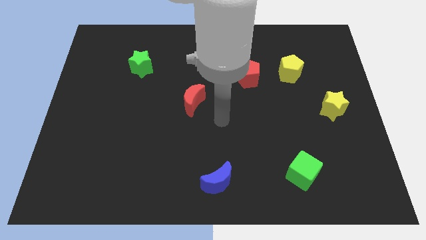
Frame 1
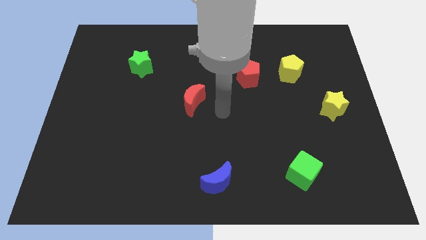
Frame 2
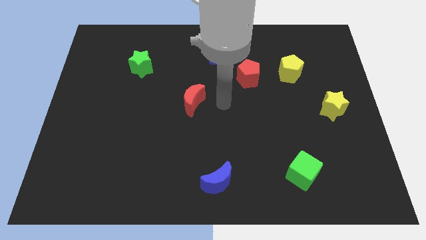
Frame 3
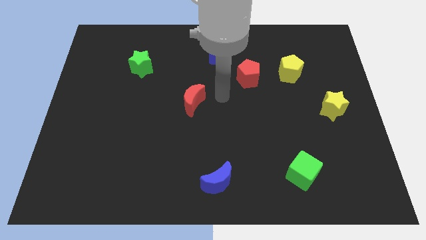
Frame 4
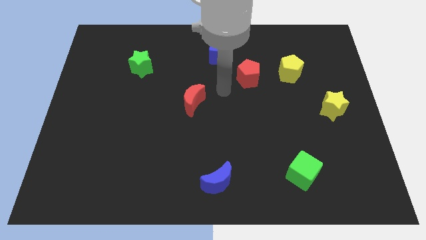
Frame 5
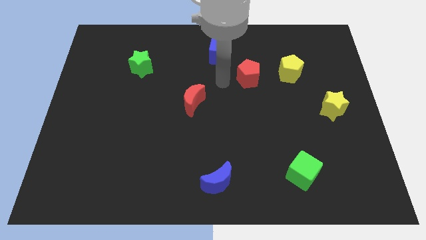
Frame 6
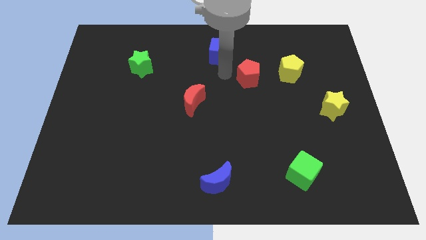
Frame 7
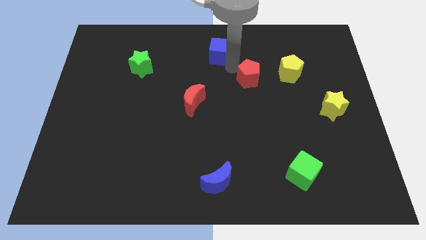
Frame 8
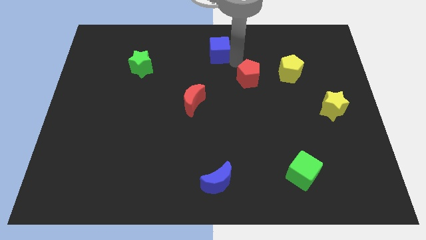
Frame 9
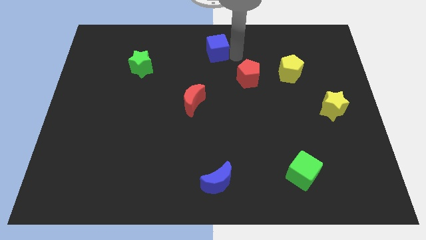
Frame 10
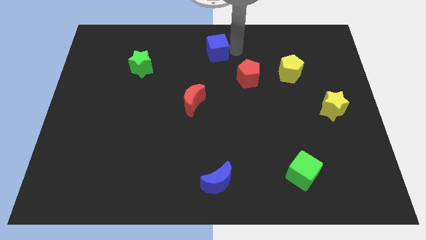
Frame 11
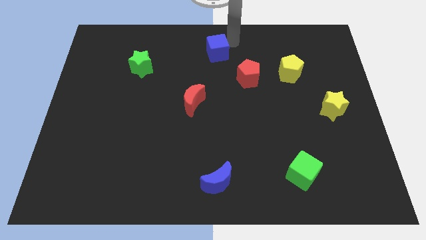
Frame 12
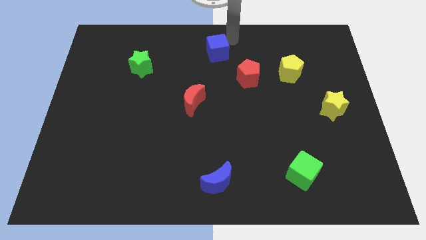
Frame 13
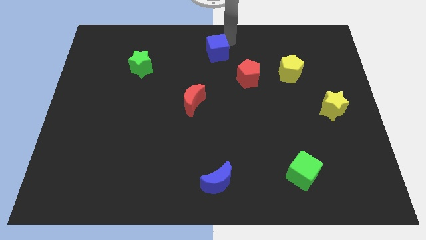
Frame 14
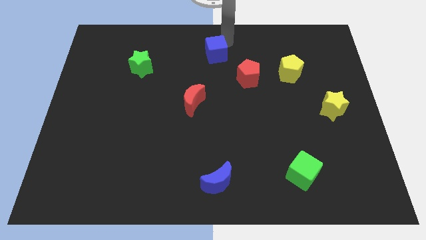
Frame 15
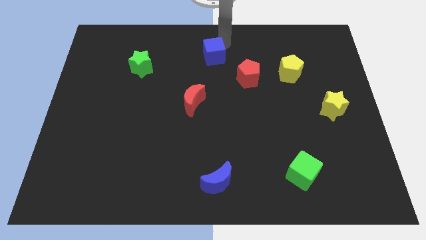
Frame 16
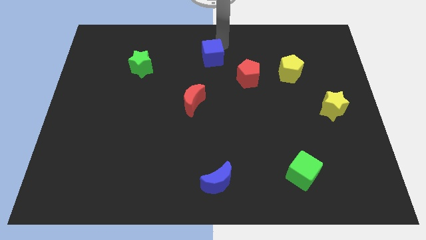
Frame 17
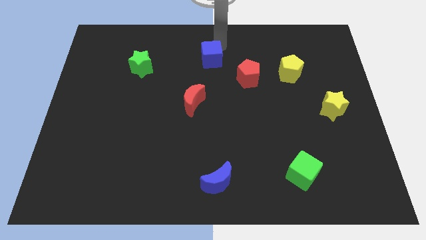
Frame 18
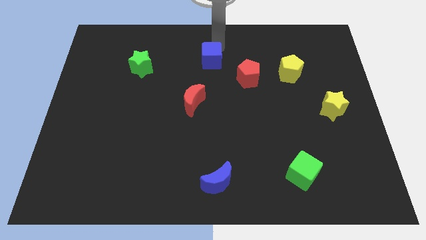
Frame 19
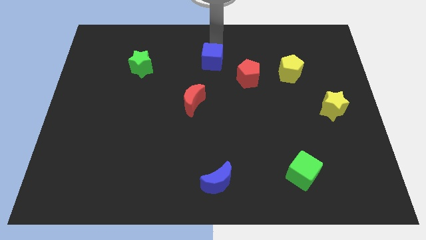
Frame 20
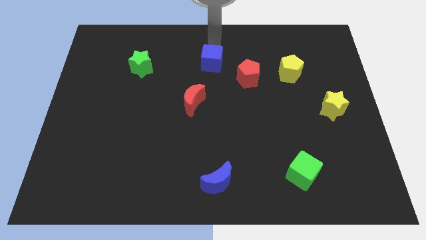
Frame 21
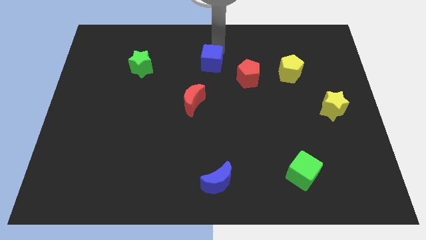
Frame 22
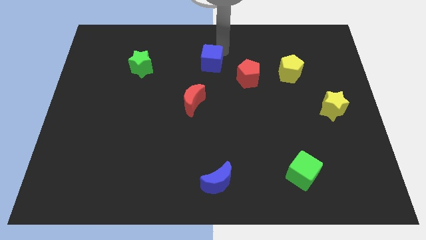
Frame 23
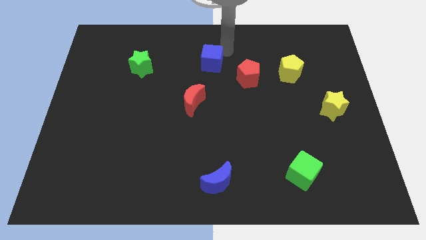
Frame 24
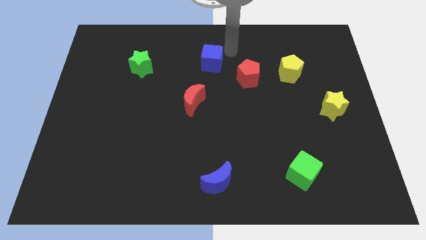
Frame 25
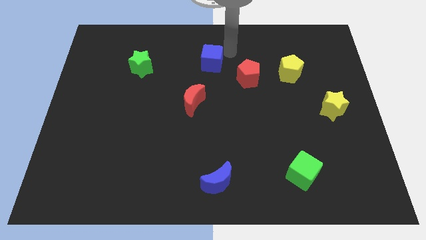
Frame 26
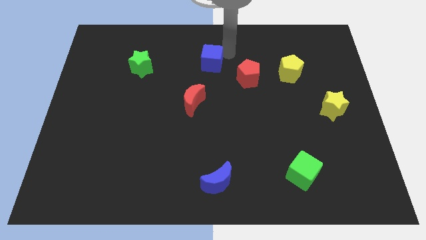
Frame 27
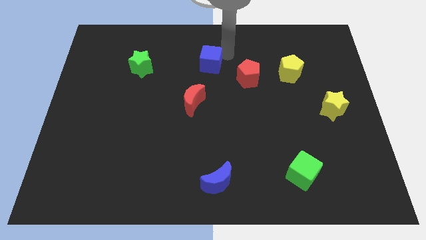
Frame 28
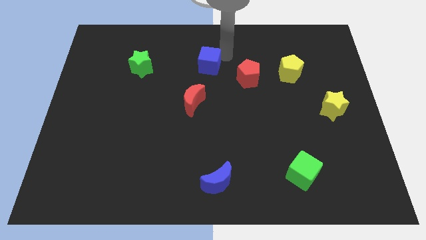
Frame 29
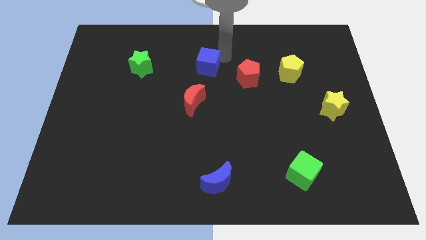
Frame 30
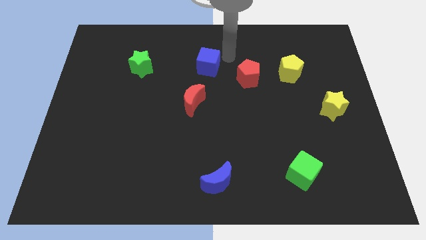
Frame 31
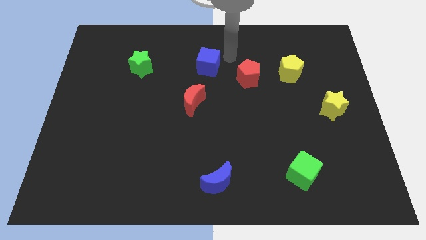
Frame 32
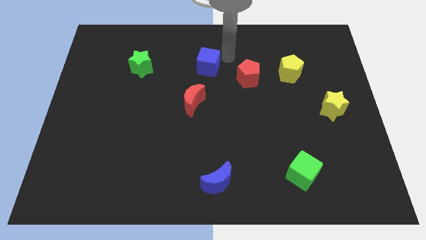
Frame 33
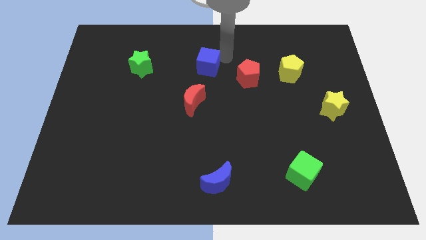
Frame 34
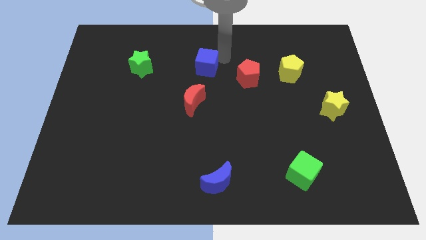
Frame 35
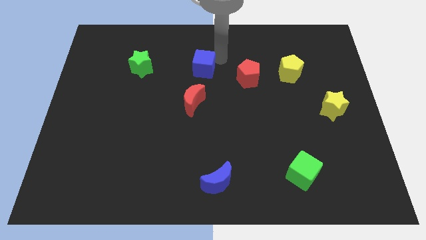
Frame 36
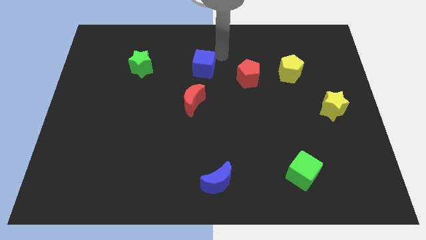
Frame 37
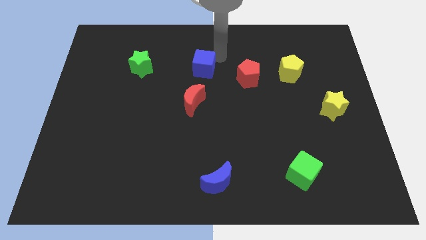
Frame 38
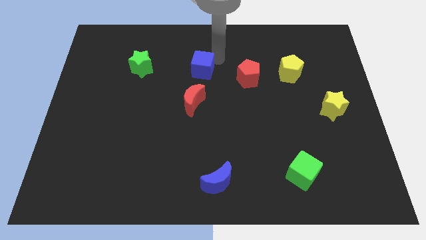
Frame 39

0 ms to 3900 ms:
slide the blue cube a bit down and left

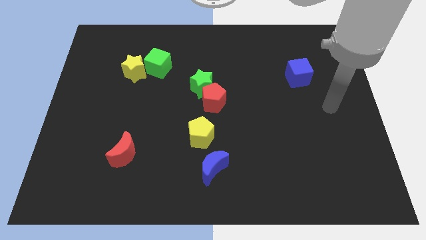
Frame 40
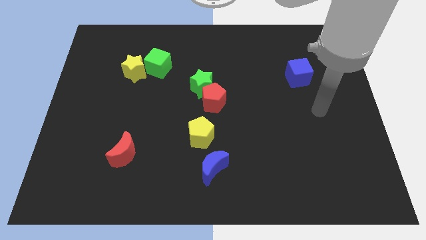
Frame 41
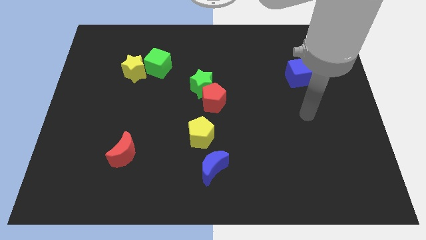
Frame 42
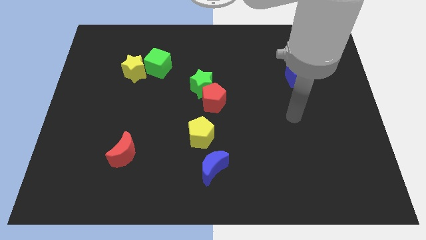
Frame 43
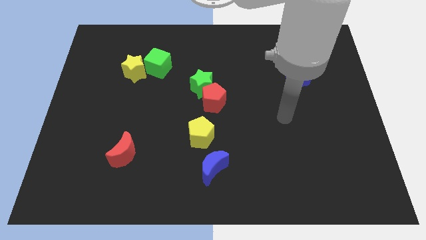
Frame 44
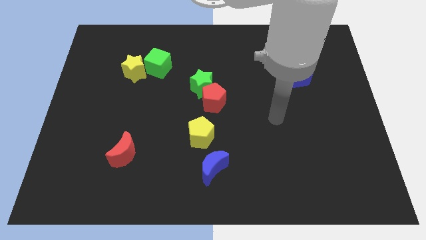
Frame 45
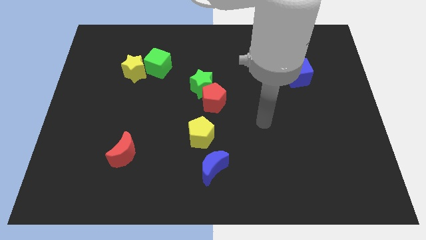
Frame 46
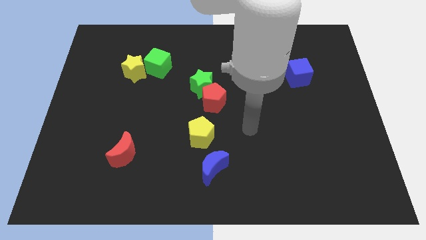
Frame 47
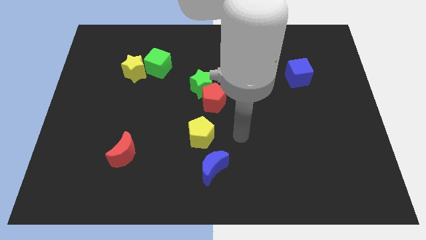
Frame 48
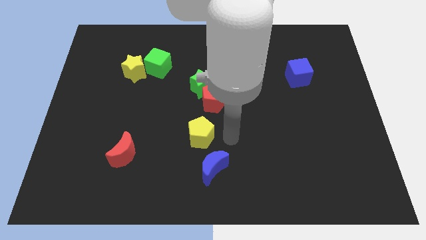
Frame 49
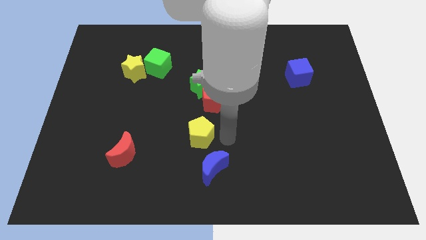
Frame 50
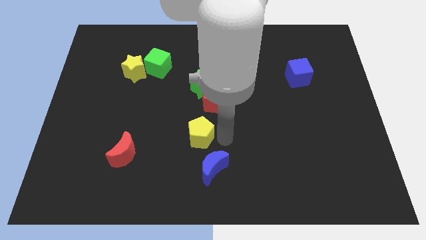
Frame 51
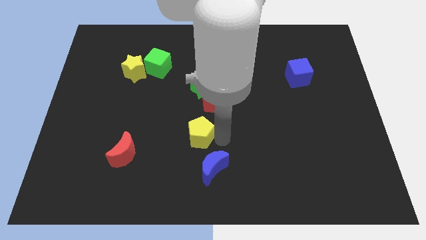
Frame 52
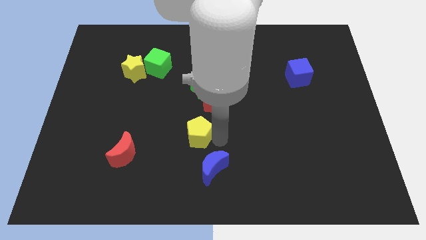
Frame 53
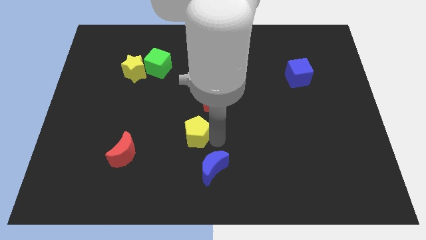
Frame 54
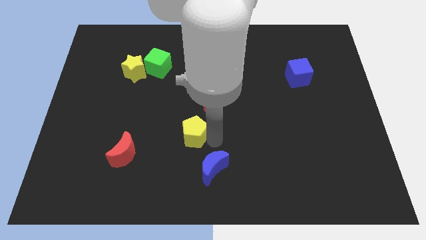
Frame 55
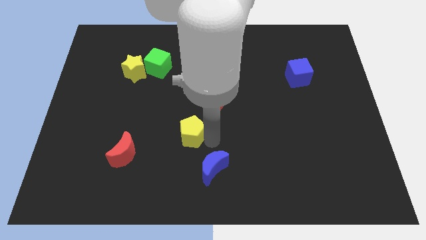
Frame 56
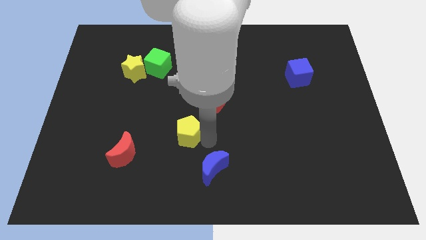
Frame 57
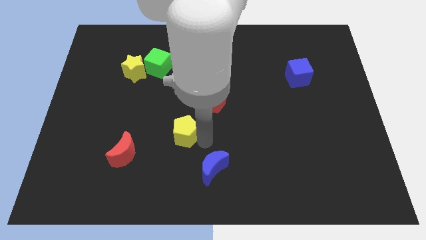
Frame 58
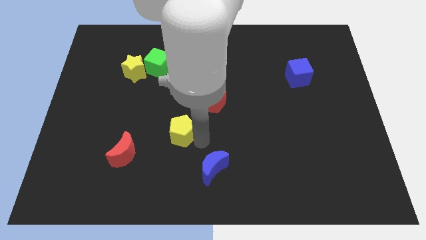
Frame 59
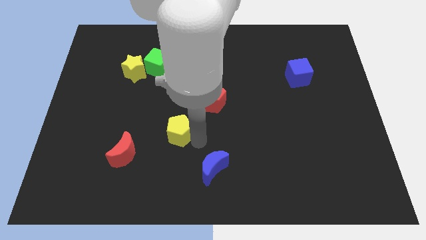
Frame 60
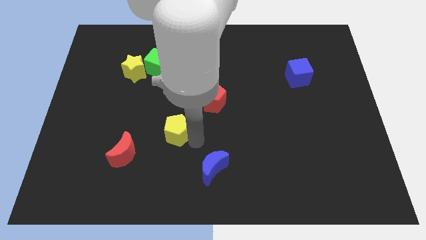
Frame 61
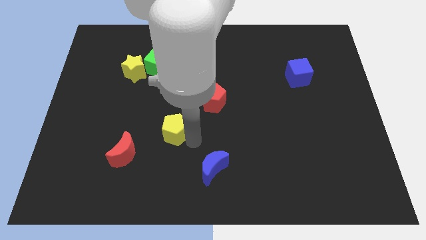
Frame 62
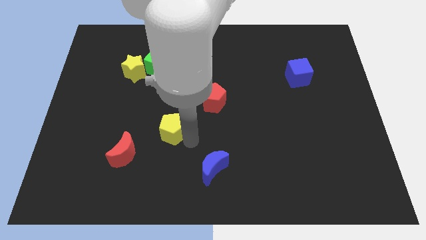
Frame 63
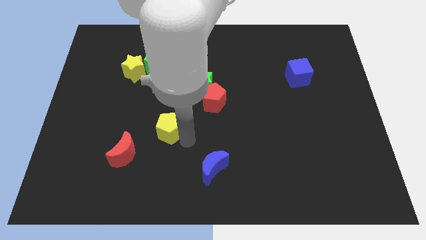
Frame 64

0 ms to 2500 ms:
push the yellow pentagon to the left a little bit

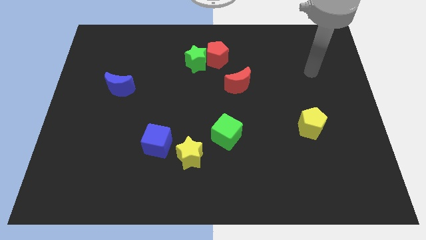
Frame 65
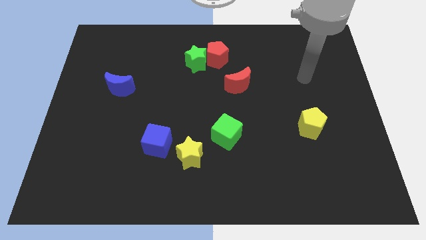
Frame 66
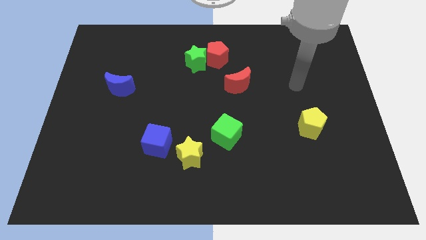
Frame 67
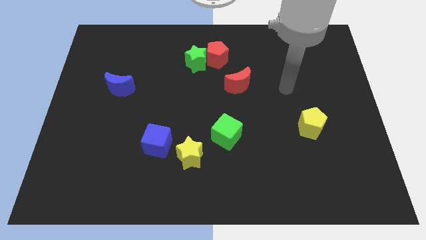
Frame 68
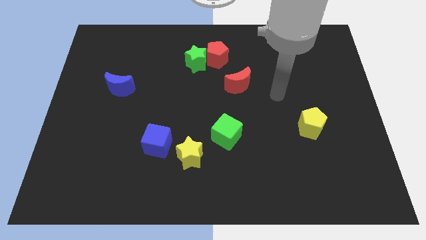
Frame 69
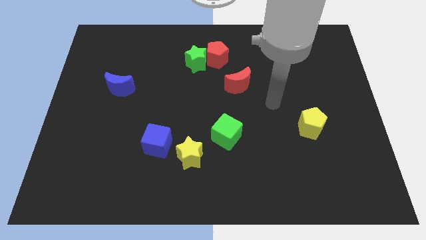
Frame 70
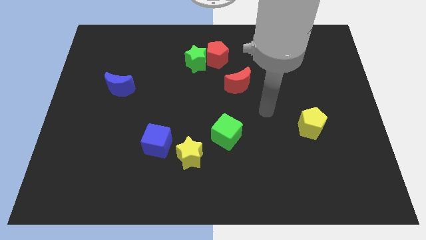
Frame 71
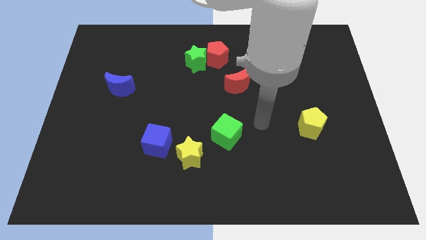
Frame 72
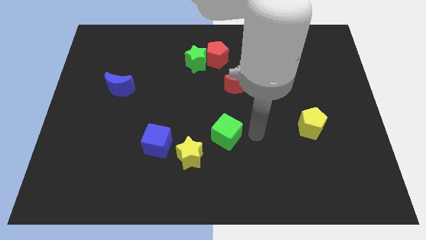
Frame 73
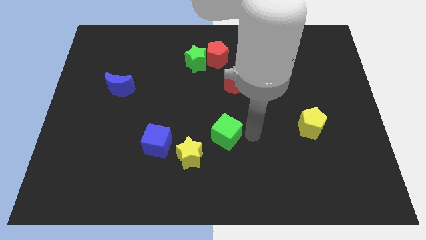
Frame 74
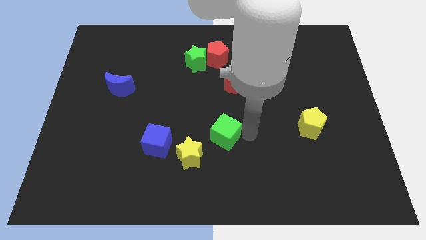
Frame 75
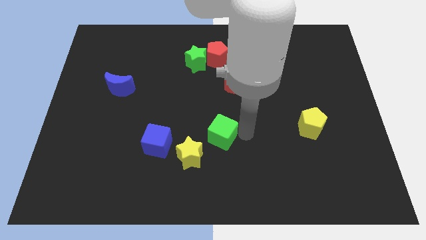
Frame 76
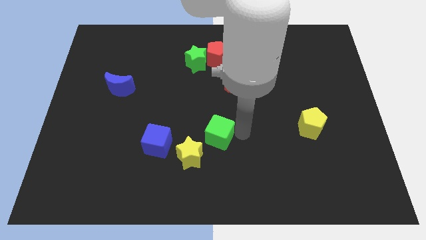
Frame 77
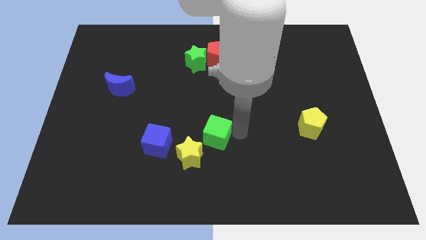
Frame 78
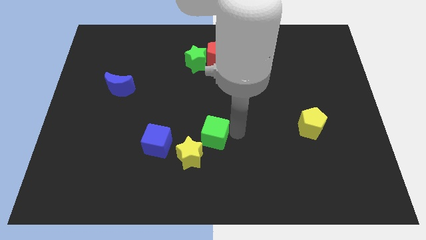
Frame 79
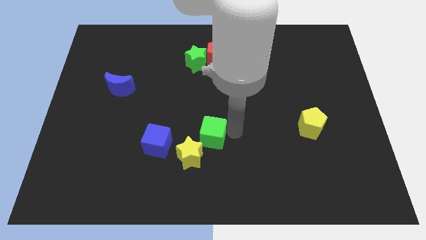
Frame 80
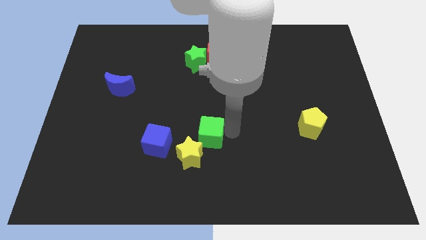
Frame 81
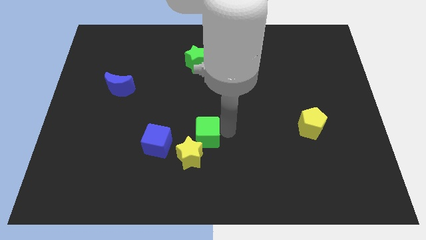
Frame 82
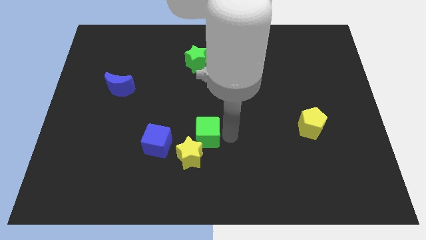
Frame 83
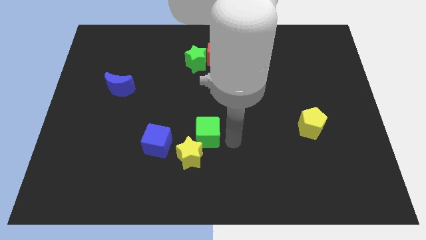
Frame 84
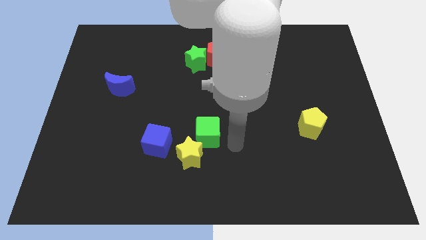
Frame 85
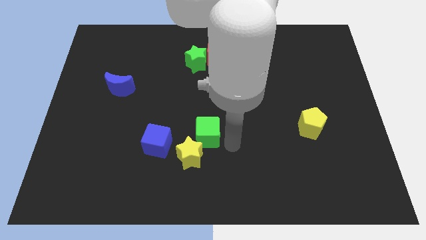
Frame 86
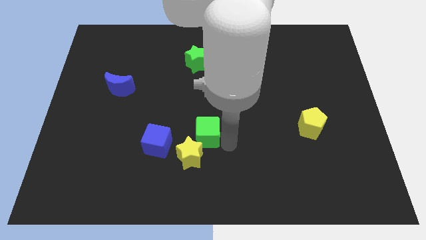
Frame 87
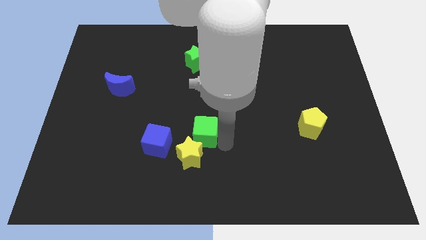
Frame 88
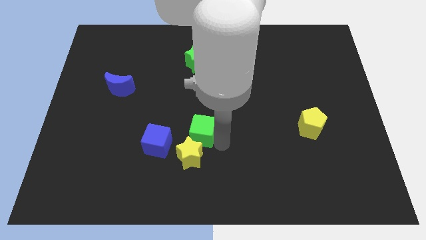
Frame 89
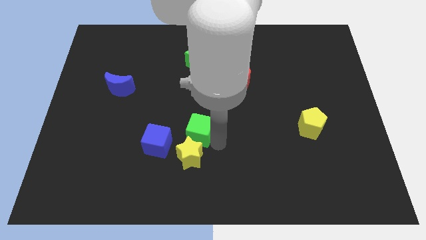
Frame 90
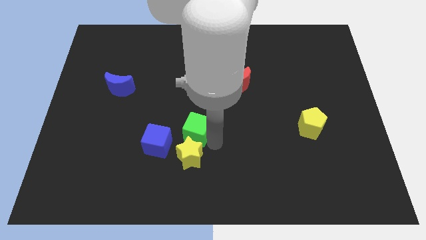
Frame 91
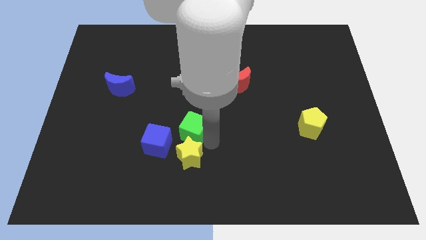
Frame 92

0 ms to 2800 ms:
push the green cube somewhat left
